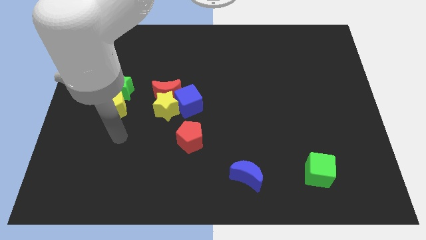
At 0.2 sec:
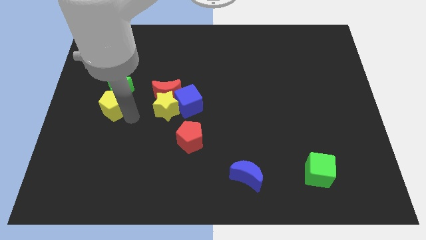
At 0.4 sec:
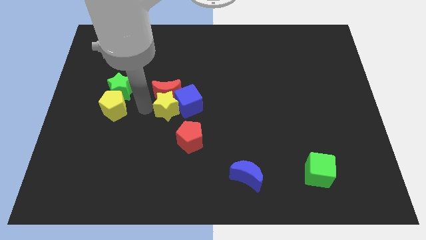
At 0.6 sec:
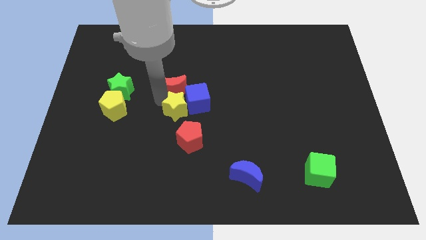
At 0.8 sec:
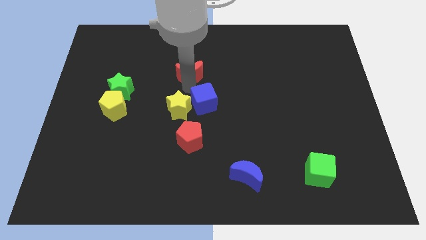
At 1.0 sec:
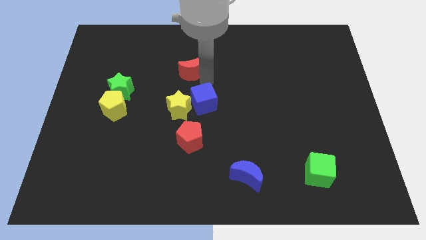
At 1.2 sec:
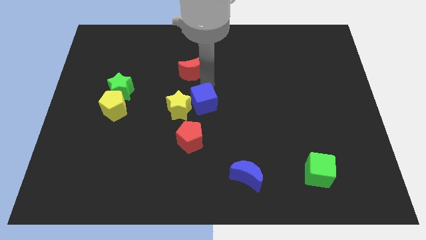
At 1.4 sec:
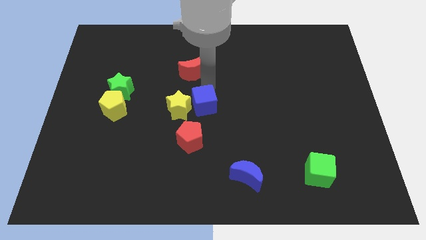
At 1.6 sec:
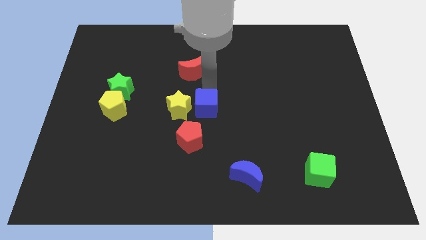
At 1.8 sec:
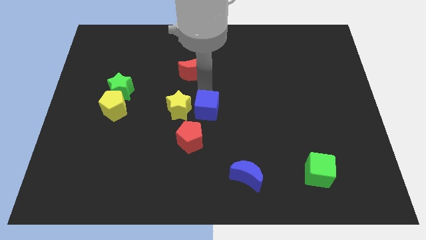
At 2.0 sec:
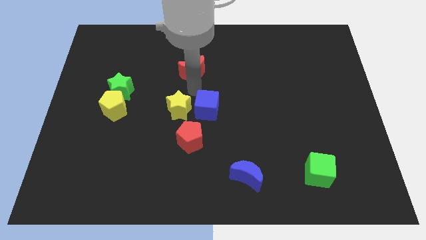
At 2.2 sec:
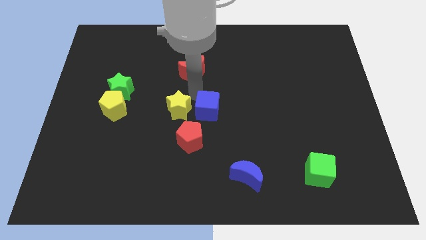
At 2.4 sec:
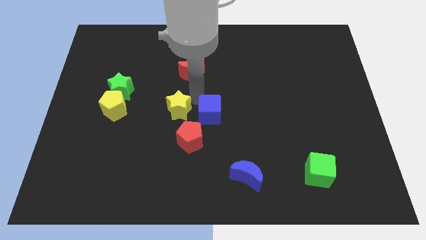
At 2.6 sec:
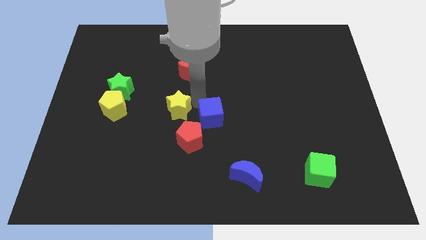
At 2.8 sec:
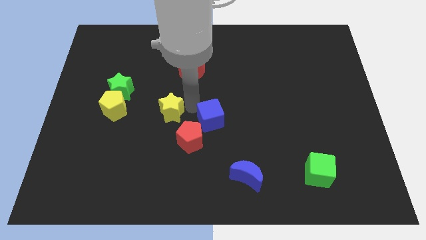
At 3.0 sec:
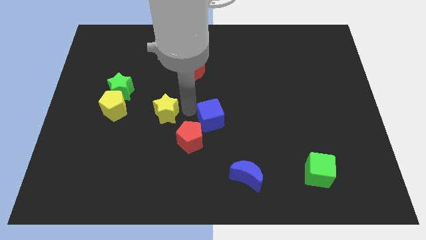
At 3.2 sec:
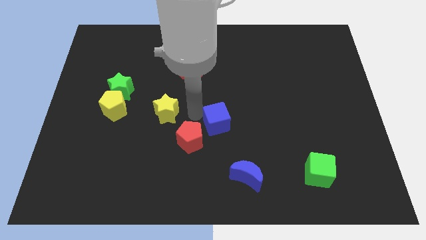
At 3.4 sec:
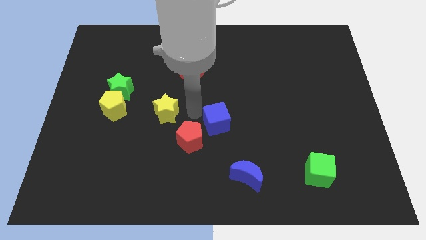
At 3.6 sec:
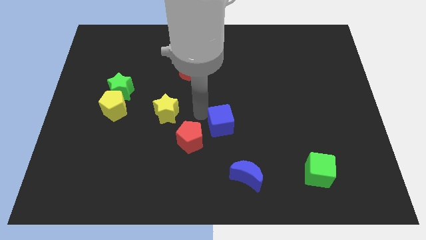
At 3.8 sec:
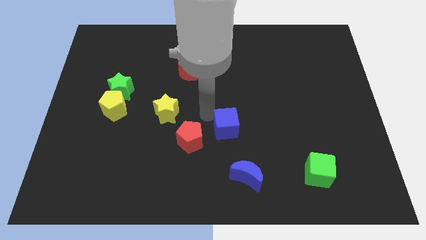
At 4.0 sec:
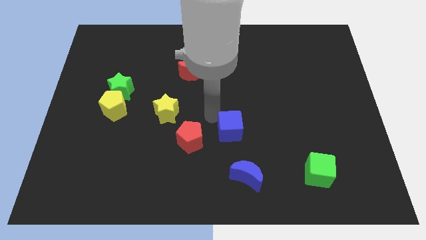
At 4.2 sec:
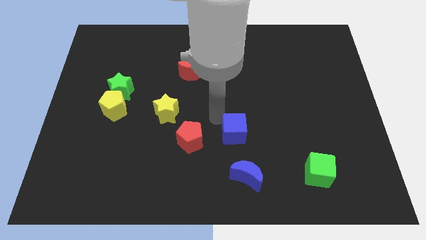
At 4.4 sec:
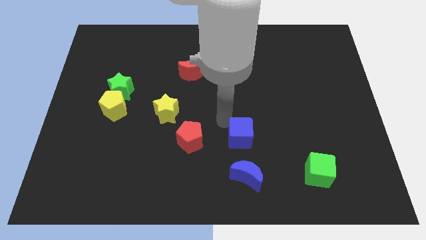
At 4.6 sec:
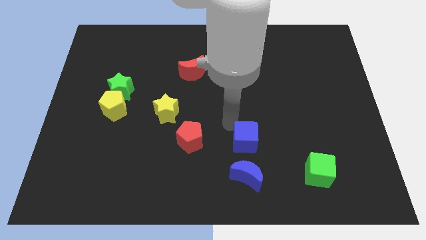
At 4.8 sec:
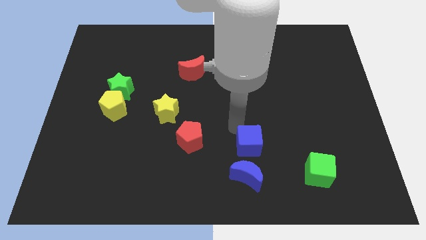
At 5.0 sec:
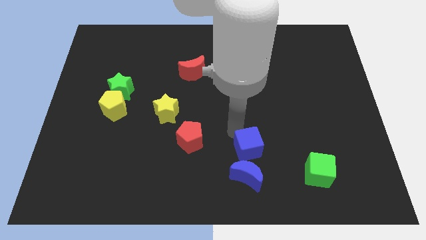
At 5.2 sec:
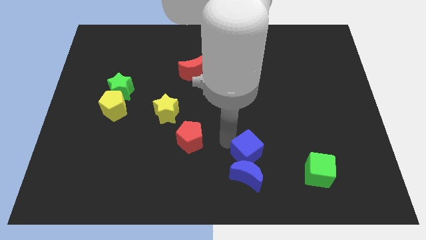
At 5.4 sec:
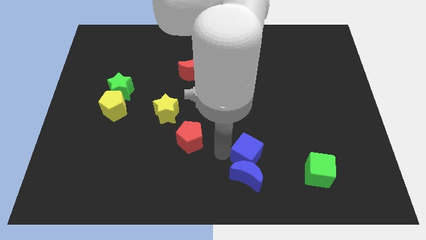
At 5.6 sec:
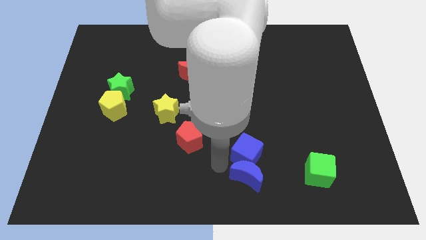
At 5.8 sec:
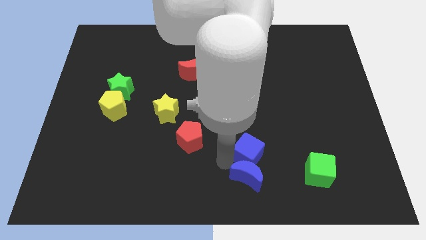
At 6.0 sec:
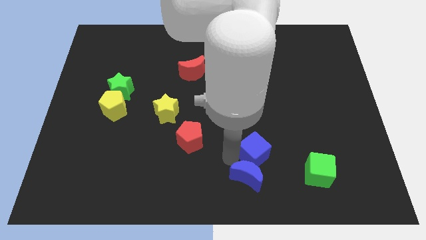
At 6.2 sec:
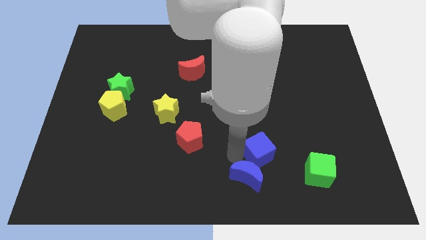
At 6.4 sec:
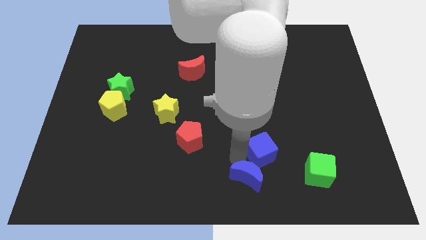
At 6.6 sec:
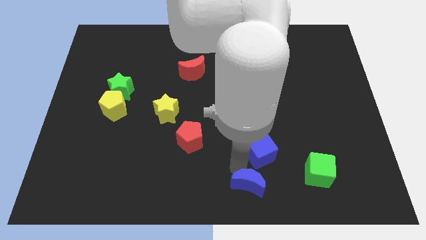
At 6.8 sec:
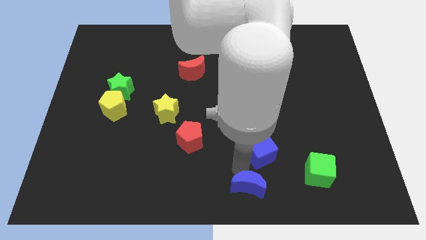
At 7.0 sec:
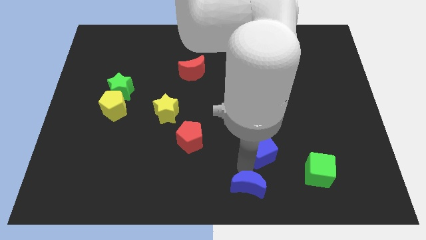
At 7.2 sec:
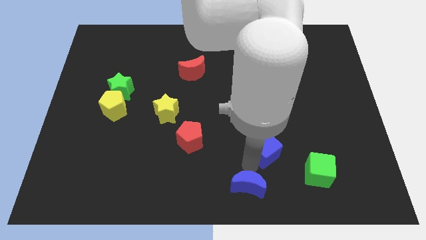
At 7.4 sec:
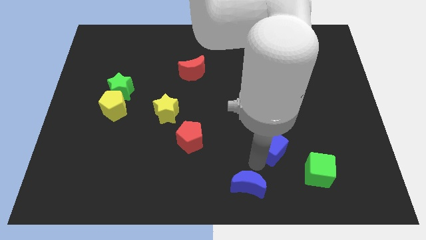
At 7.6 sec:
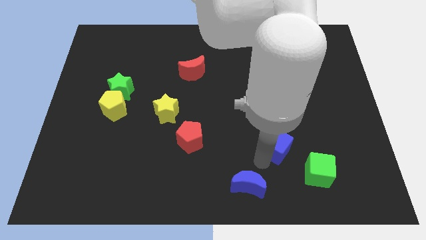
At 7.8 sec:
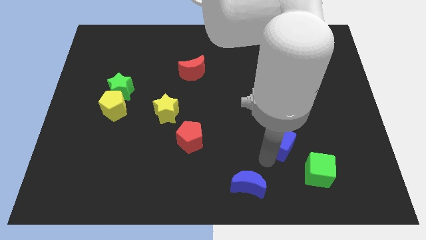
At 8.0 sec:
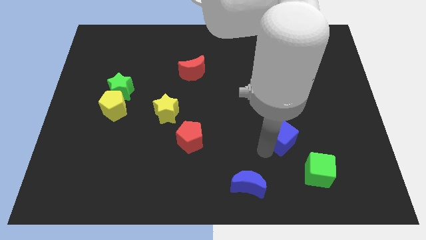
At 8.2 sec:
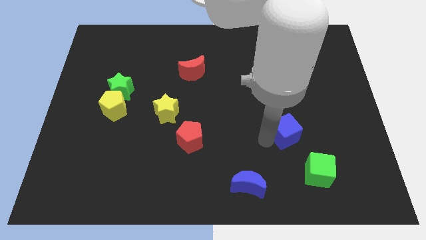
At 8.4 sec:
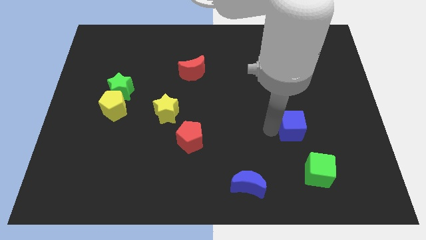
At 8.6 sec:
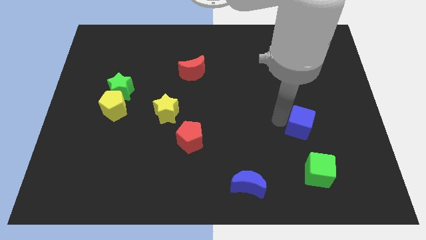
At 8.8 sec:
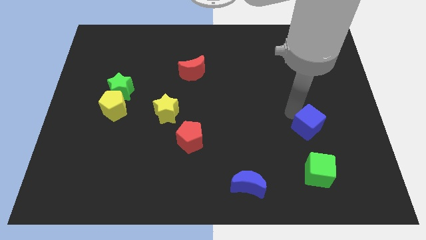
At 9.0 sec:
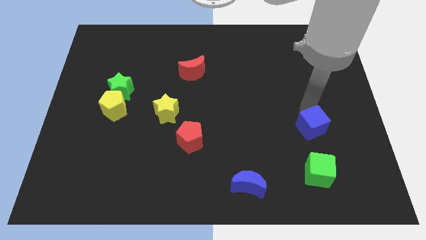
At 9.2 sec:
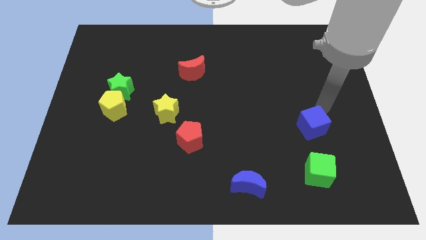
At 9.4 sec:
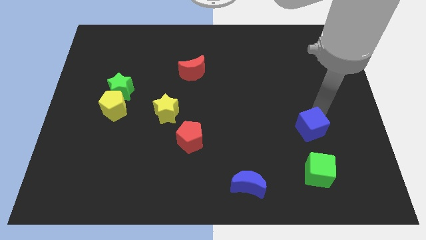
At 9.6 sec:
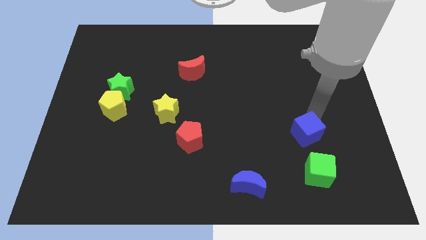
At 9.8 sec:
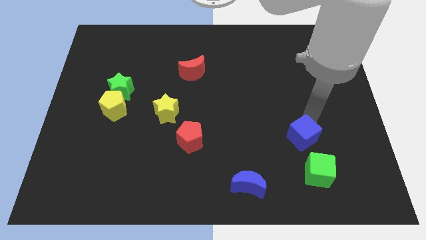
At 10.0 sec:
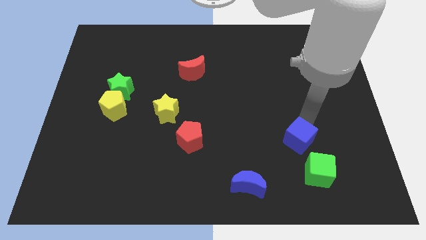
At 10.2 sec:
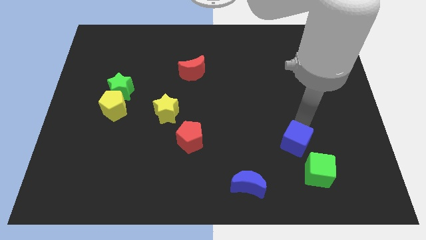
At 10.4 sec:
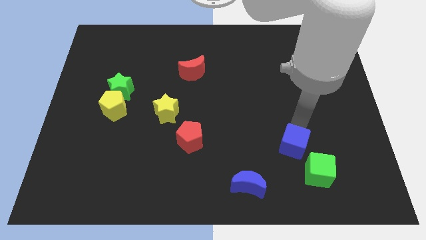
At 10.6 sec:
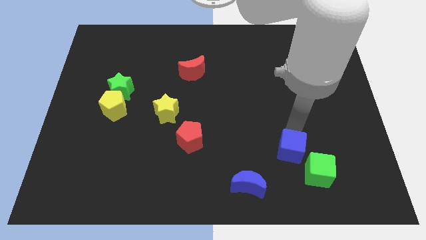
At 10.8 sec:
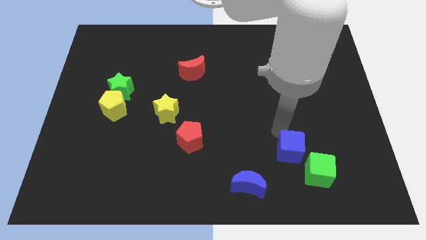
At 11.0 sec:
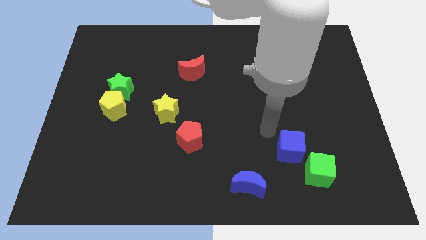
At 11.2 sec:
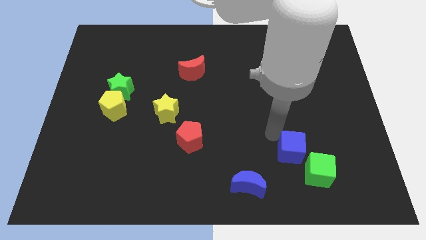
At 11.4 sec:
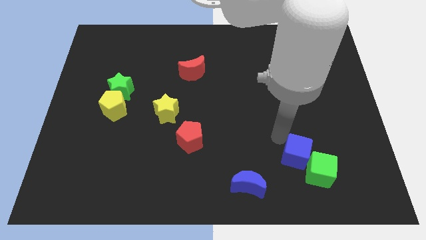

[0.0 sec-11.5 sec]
slide the blue cube to the green cube

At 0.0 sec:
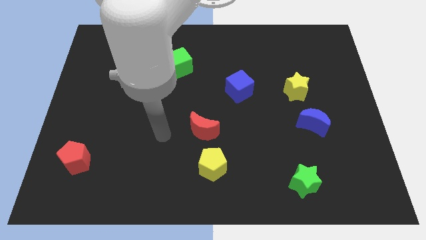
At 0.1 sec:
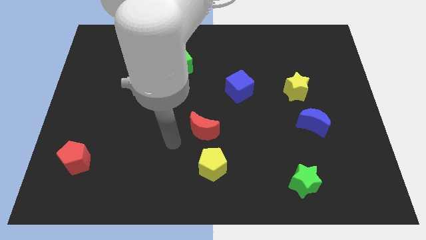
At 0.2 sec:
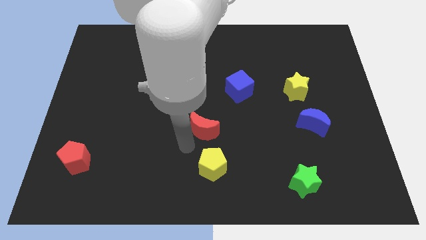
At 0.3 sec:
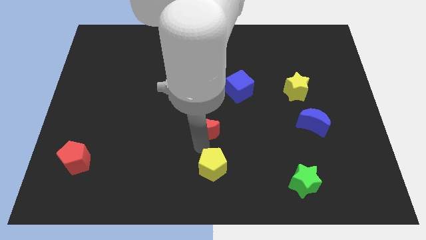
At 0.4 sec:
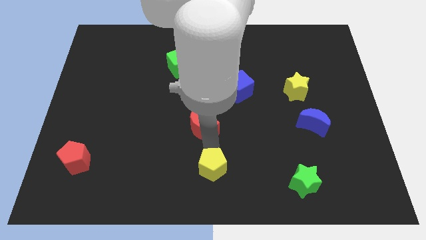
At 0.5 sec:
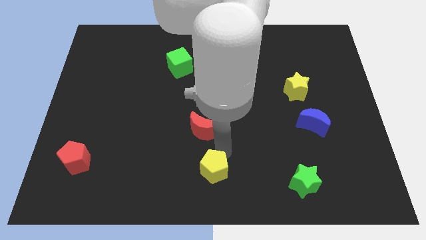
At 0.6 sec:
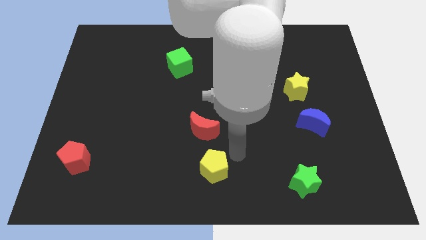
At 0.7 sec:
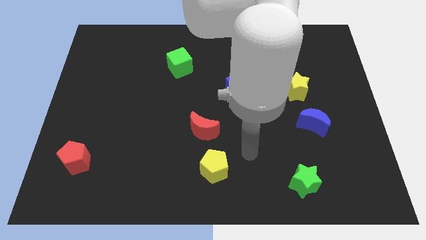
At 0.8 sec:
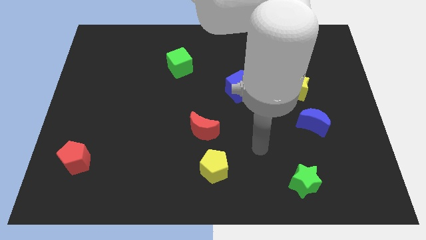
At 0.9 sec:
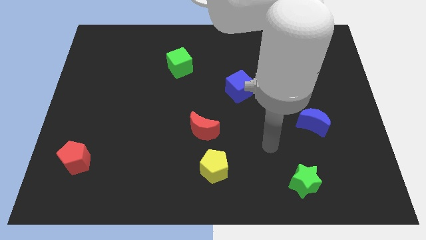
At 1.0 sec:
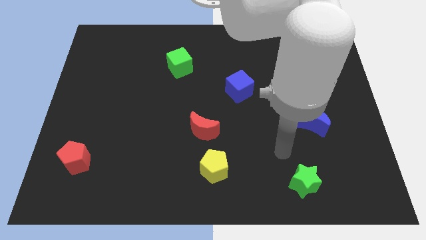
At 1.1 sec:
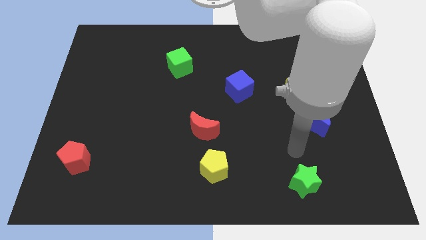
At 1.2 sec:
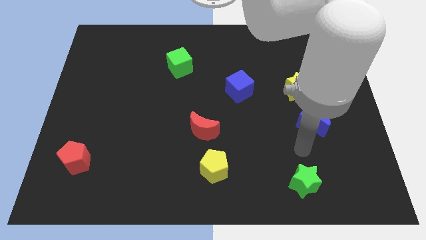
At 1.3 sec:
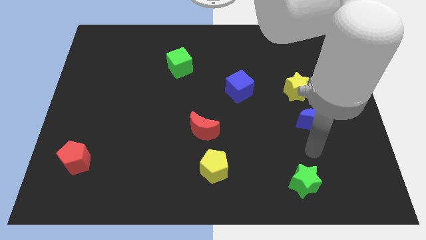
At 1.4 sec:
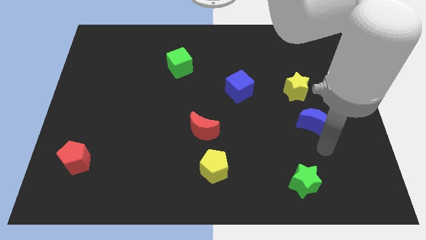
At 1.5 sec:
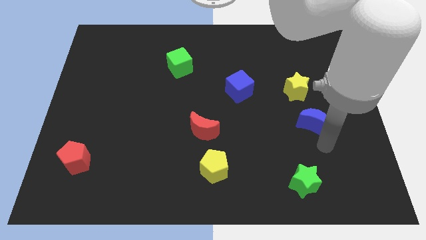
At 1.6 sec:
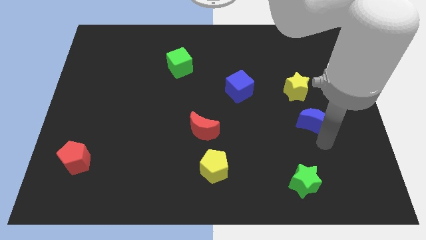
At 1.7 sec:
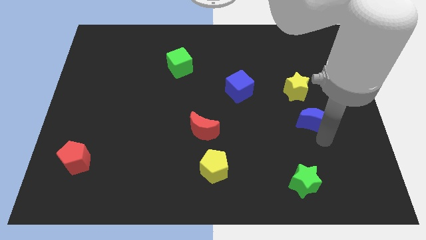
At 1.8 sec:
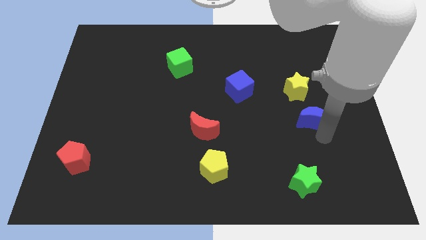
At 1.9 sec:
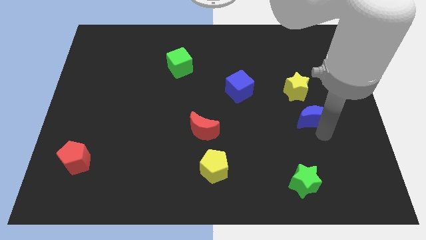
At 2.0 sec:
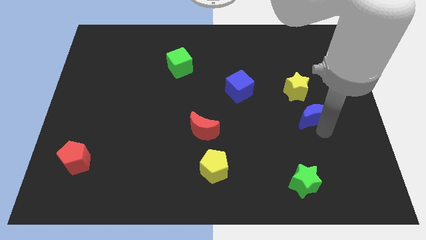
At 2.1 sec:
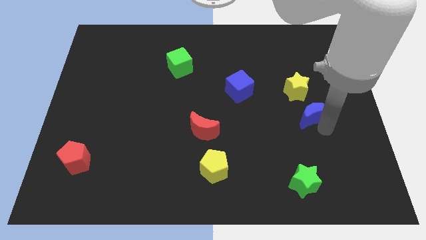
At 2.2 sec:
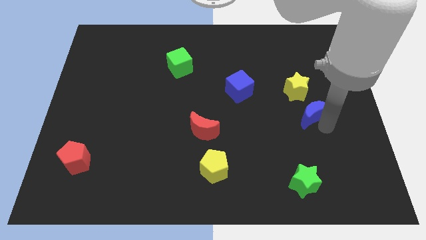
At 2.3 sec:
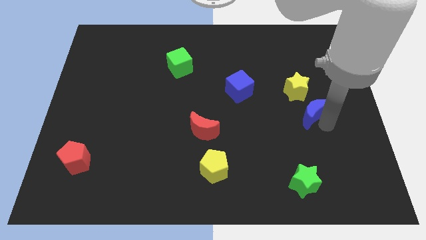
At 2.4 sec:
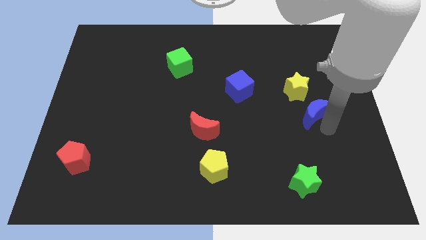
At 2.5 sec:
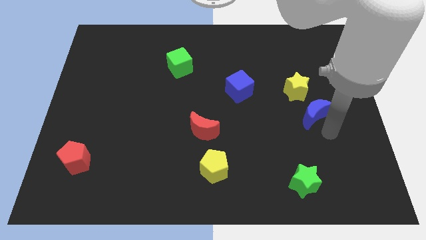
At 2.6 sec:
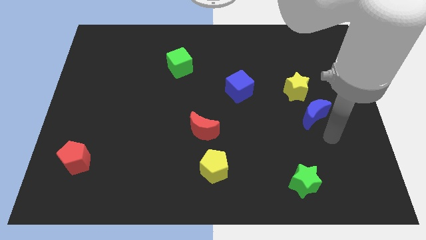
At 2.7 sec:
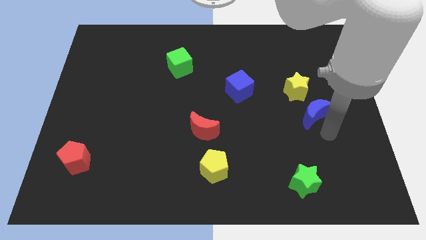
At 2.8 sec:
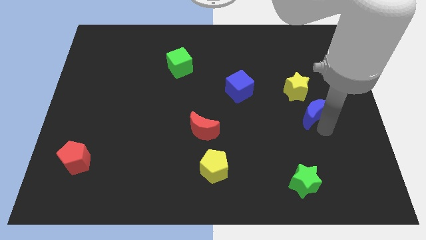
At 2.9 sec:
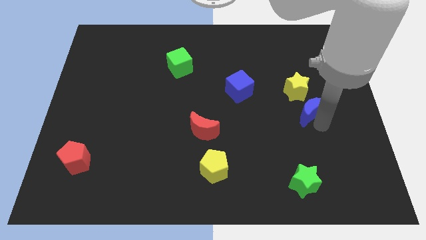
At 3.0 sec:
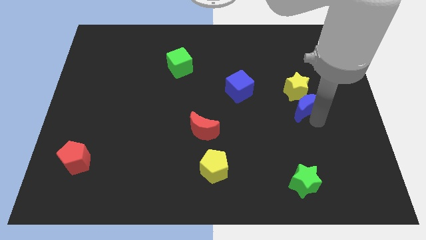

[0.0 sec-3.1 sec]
move the blue moon close to the yellow star
